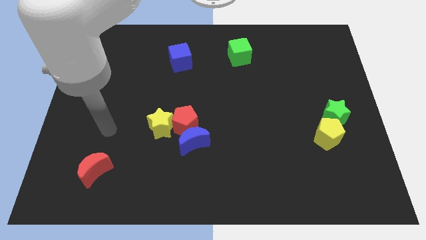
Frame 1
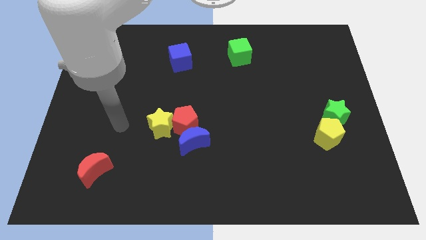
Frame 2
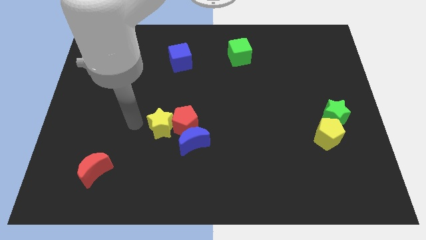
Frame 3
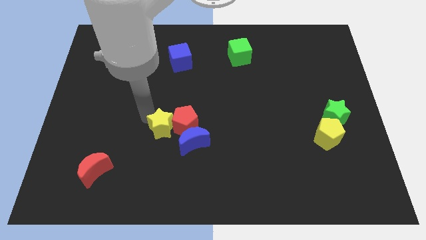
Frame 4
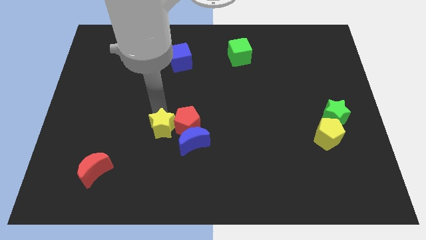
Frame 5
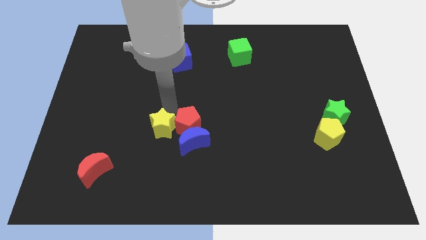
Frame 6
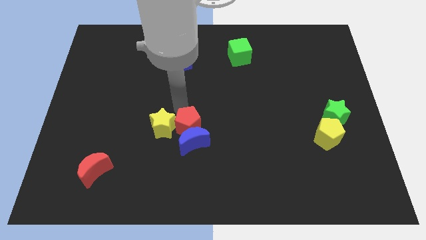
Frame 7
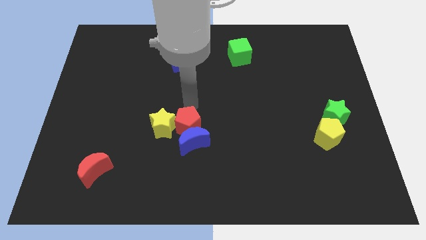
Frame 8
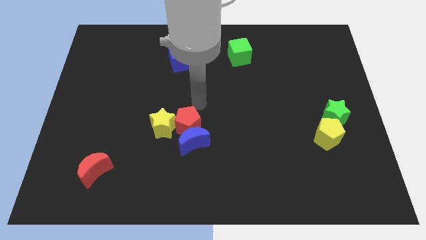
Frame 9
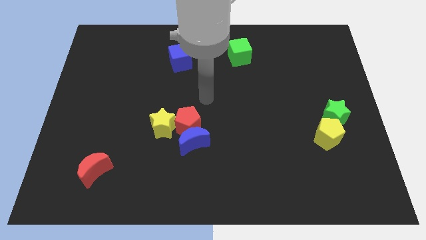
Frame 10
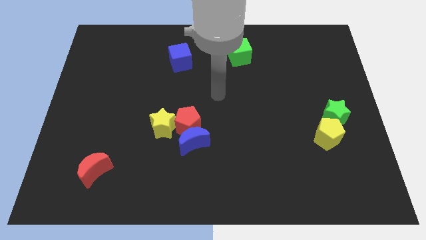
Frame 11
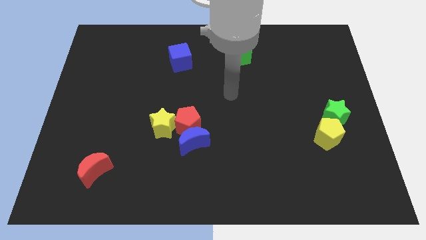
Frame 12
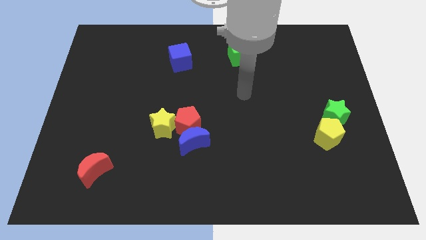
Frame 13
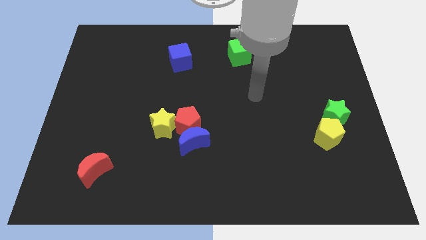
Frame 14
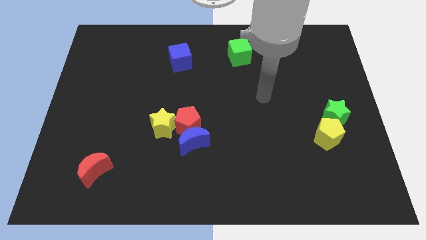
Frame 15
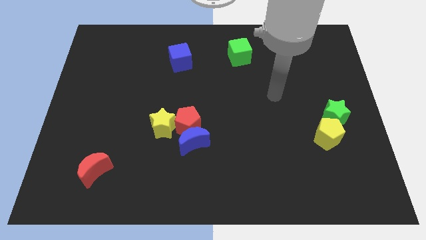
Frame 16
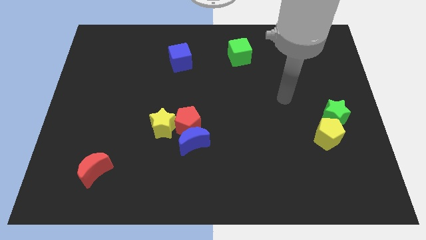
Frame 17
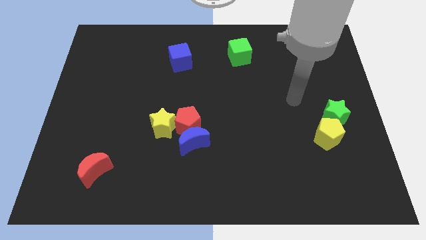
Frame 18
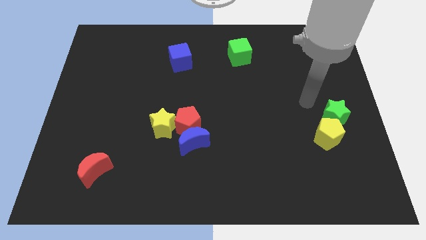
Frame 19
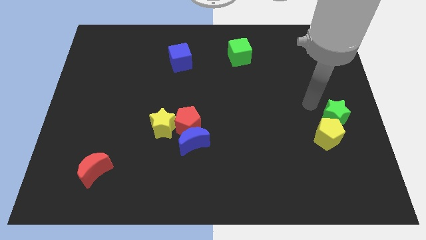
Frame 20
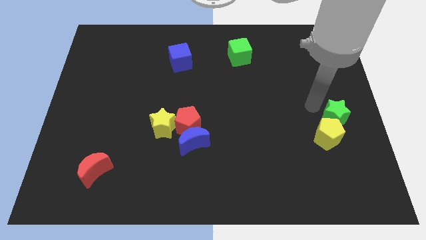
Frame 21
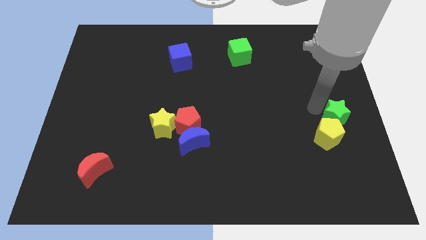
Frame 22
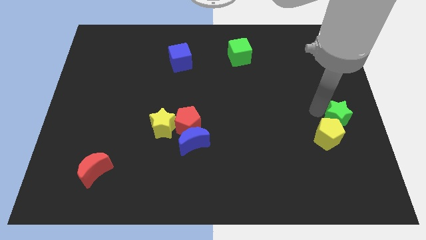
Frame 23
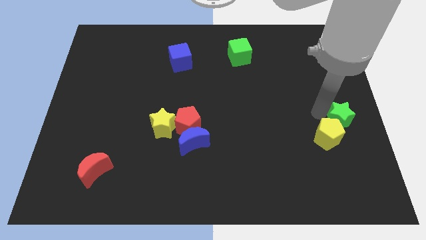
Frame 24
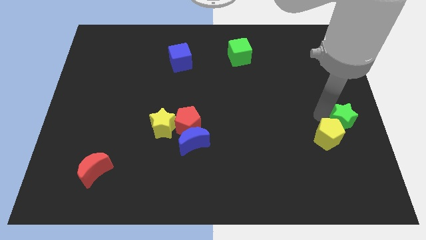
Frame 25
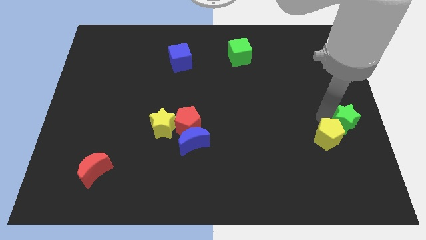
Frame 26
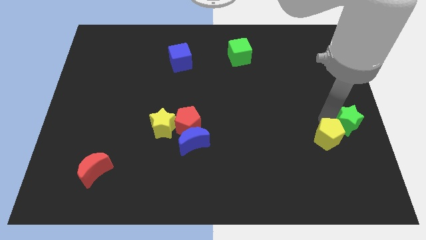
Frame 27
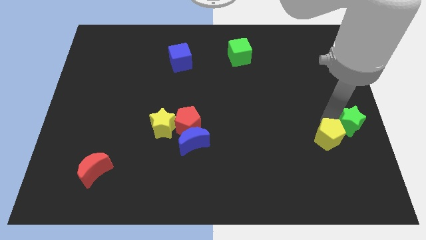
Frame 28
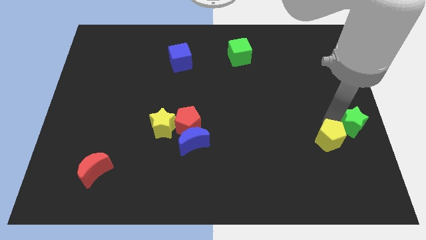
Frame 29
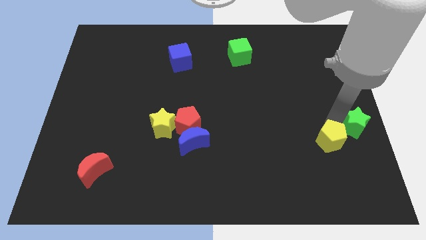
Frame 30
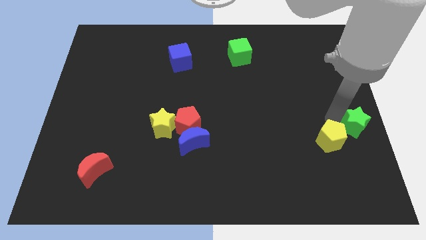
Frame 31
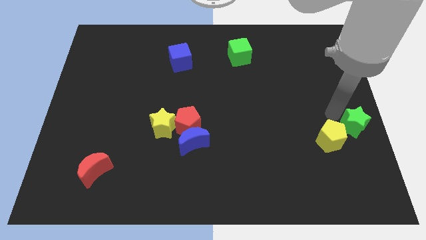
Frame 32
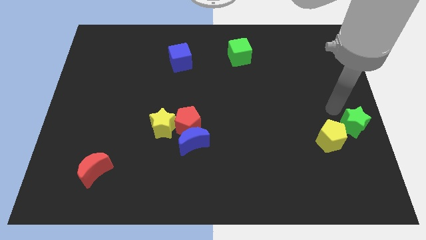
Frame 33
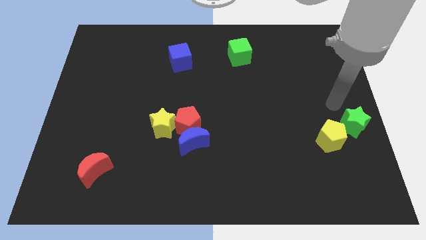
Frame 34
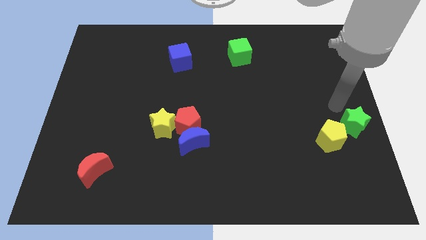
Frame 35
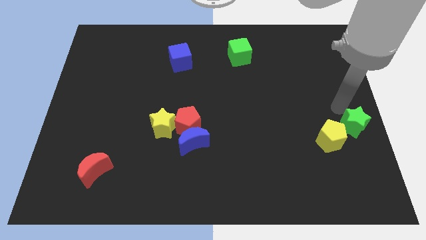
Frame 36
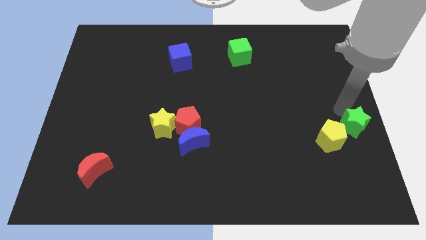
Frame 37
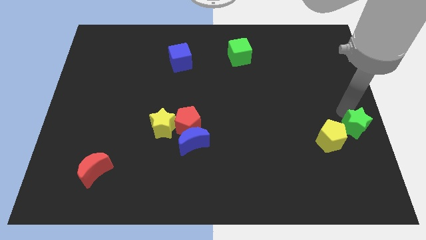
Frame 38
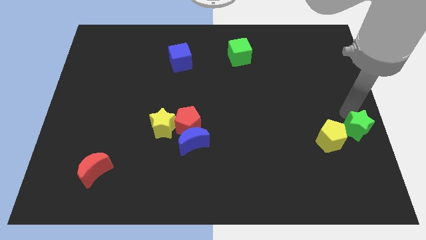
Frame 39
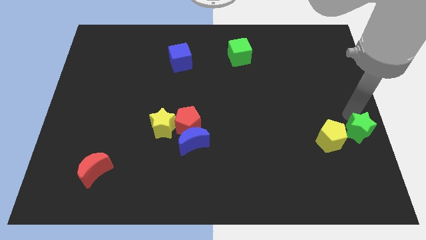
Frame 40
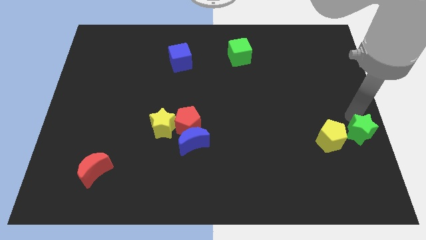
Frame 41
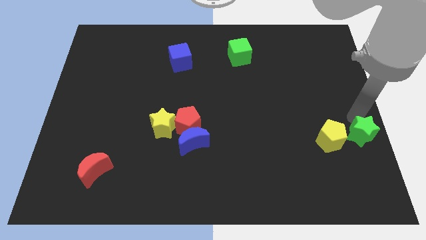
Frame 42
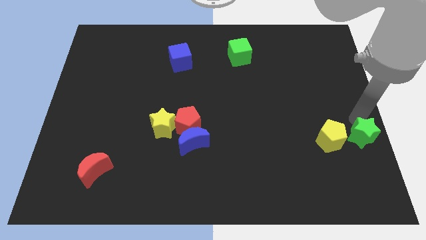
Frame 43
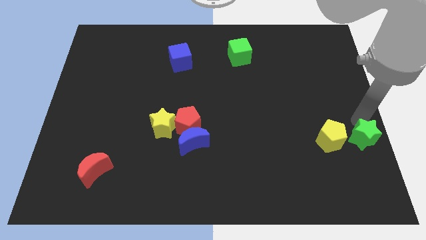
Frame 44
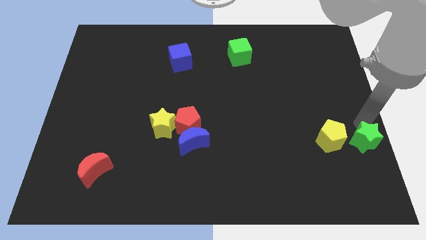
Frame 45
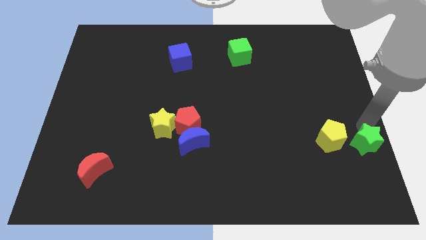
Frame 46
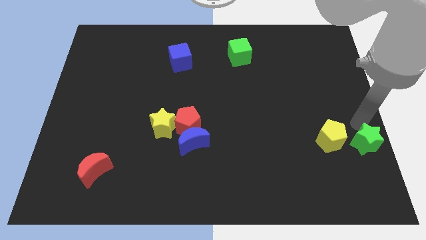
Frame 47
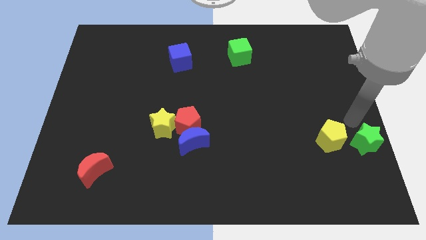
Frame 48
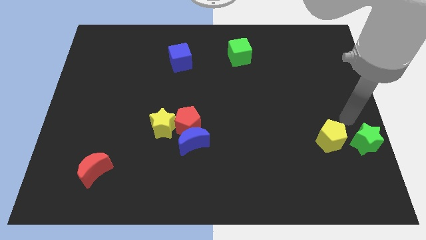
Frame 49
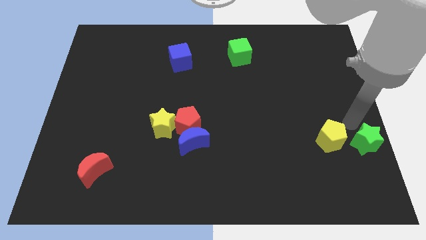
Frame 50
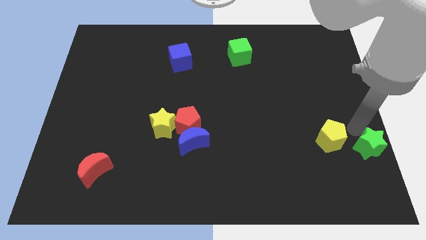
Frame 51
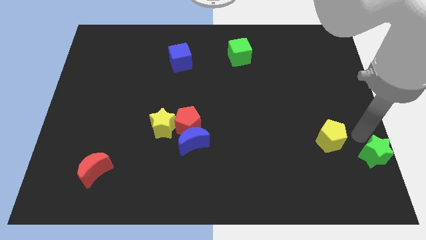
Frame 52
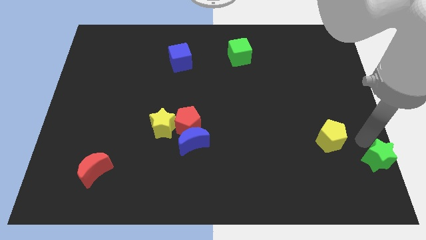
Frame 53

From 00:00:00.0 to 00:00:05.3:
slide the green star to the lower right corner
